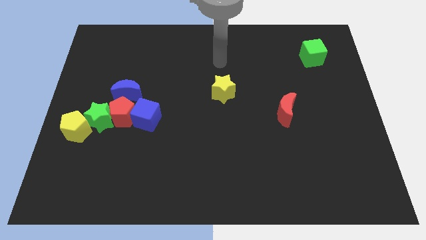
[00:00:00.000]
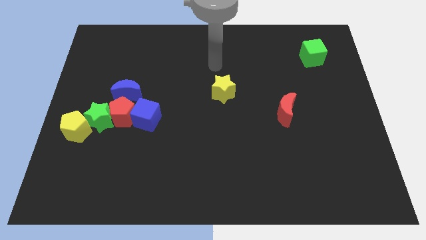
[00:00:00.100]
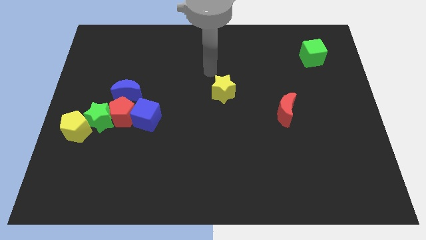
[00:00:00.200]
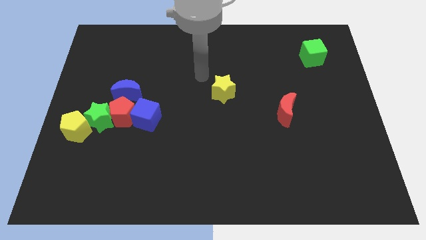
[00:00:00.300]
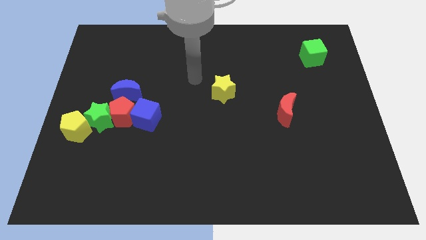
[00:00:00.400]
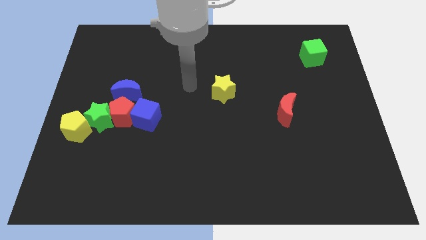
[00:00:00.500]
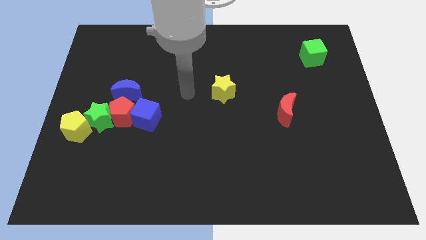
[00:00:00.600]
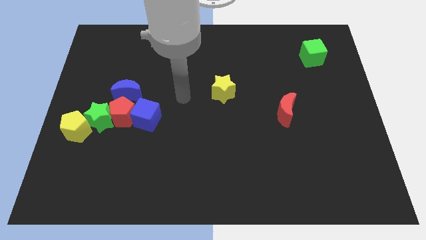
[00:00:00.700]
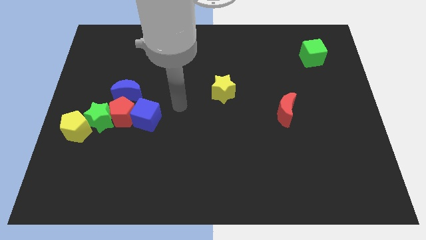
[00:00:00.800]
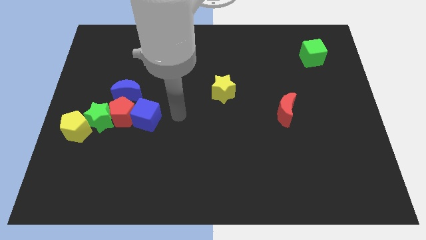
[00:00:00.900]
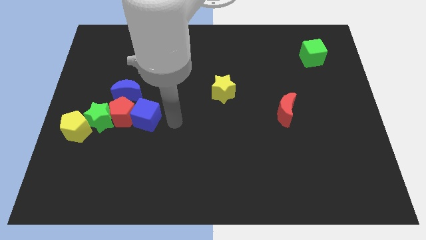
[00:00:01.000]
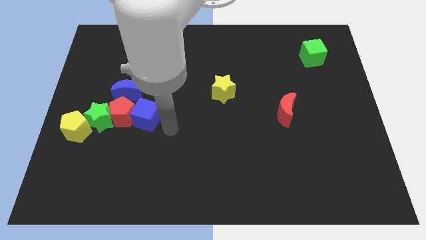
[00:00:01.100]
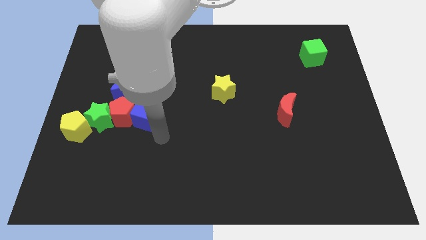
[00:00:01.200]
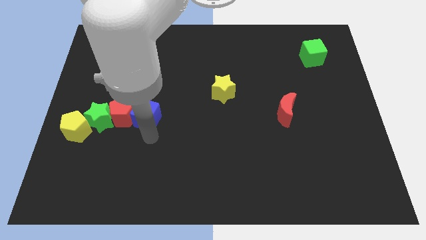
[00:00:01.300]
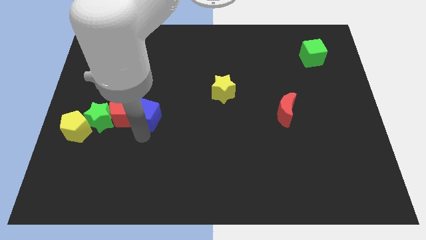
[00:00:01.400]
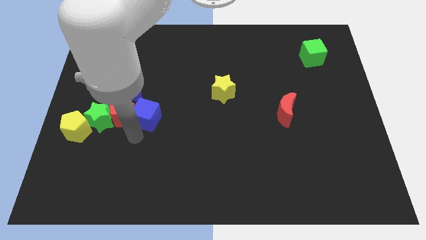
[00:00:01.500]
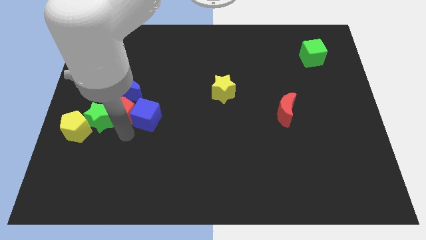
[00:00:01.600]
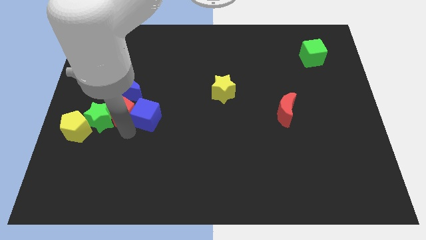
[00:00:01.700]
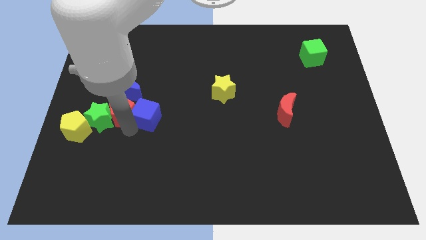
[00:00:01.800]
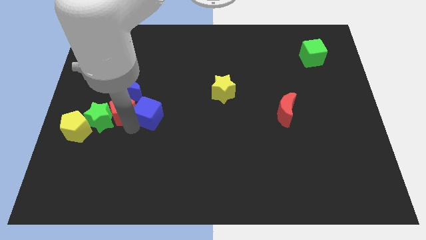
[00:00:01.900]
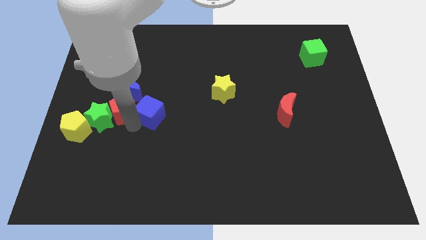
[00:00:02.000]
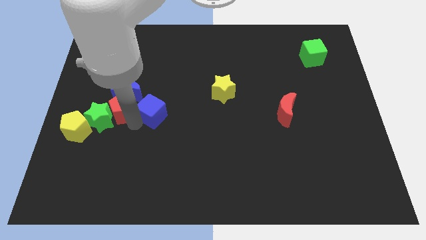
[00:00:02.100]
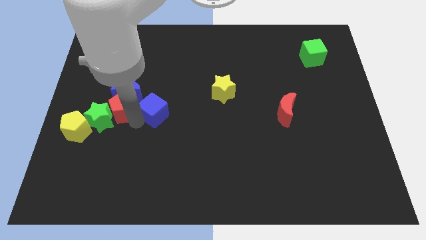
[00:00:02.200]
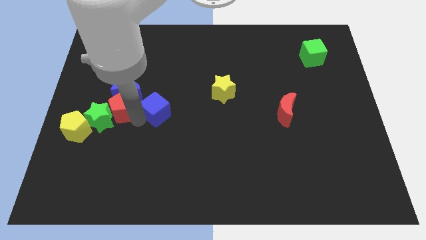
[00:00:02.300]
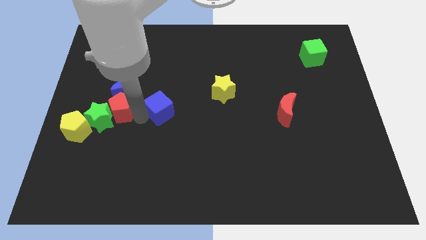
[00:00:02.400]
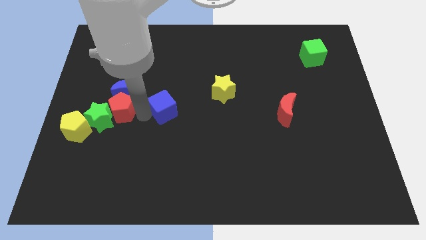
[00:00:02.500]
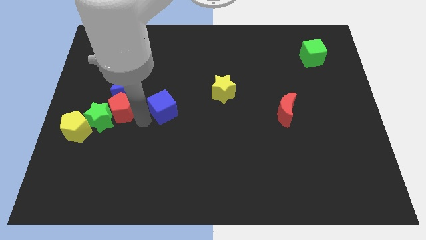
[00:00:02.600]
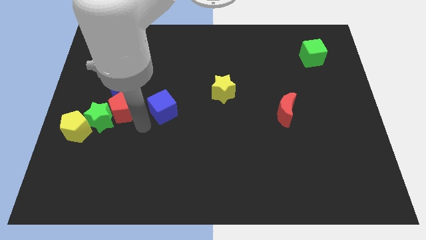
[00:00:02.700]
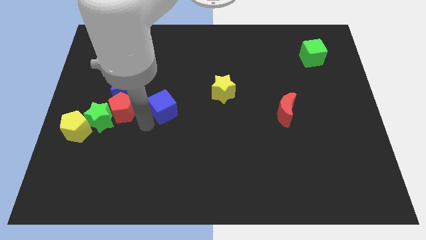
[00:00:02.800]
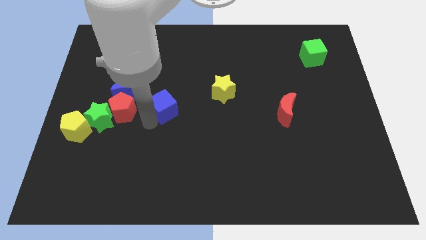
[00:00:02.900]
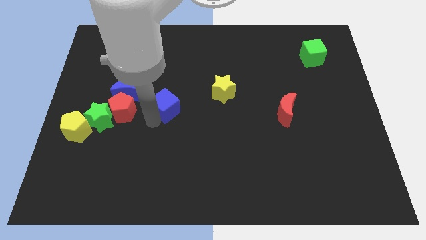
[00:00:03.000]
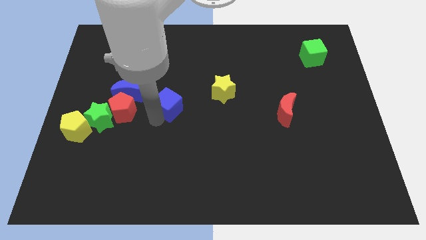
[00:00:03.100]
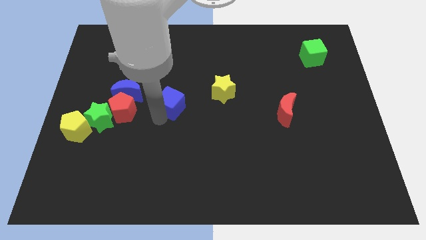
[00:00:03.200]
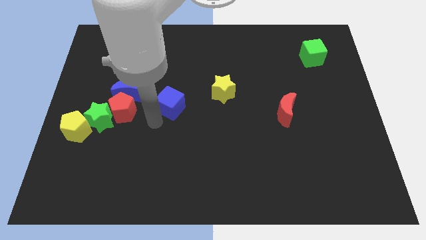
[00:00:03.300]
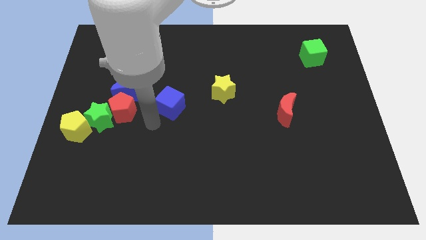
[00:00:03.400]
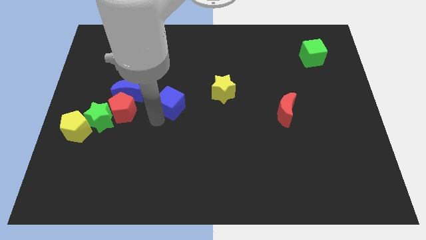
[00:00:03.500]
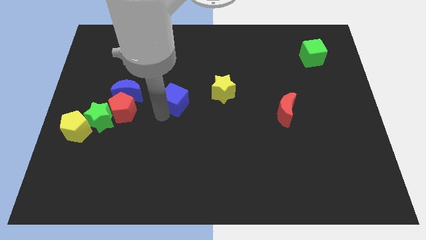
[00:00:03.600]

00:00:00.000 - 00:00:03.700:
push the blue cube a bit up and to the right

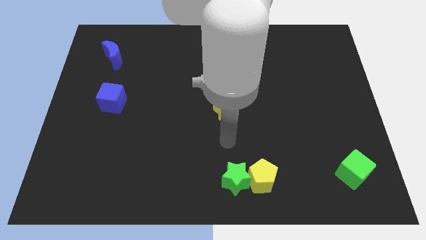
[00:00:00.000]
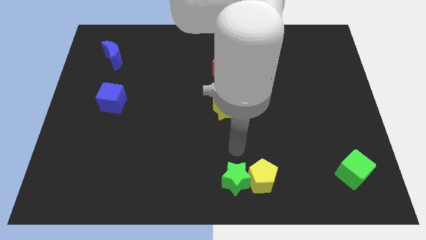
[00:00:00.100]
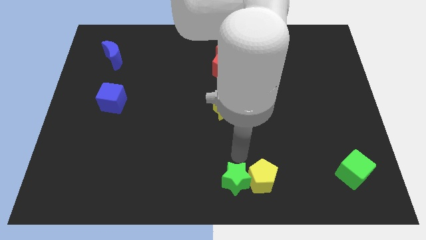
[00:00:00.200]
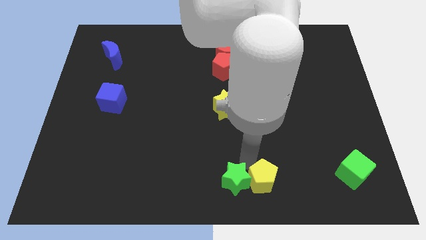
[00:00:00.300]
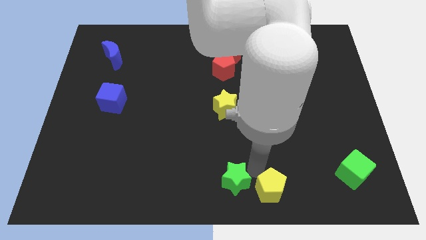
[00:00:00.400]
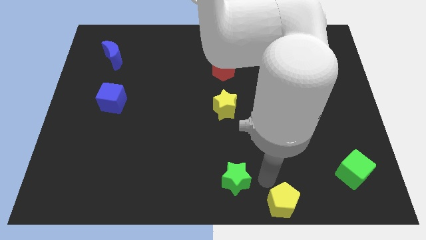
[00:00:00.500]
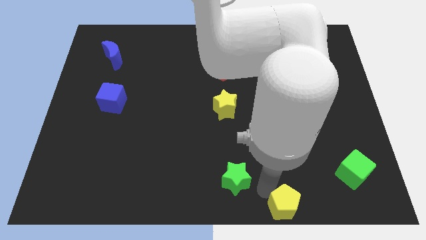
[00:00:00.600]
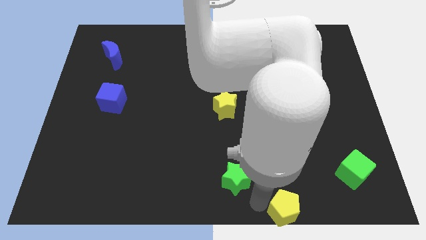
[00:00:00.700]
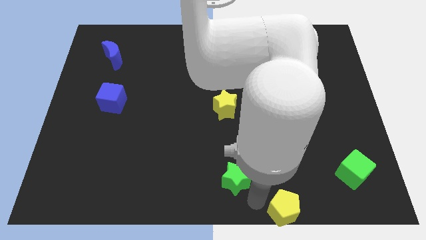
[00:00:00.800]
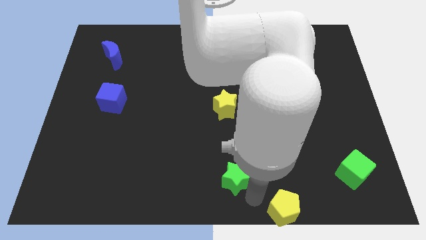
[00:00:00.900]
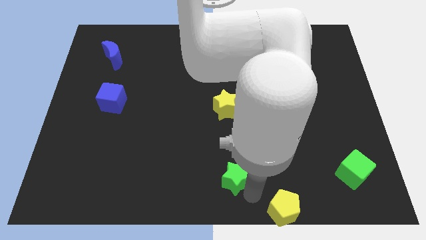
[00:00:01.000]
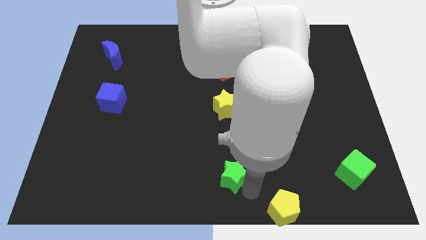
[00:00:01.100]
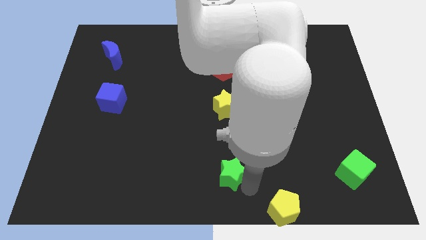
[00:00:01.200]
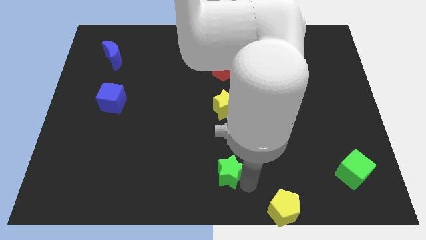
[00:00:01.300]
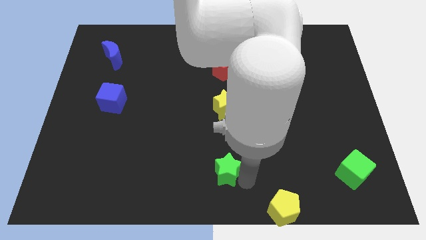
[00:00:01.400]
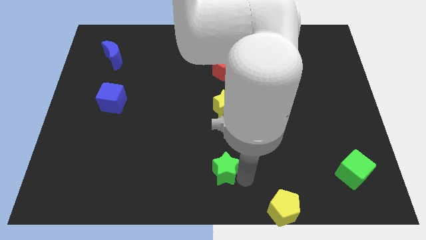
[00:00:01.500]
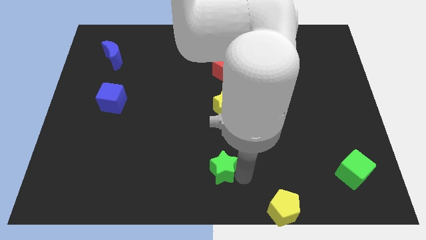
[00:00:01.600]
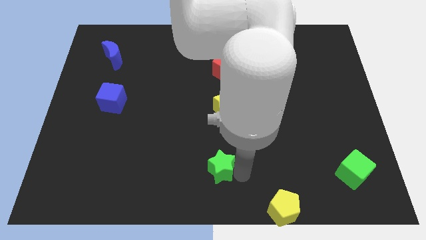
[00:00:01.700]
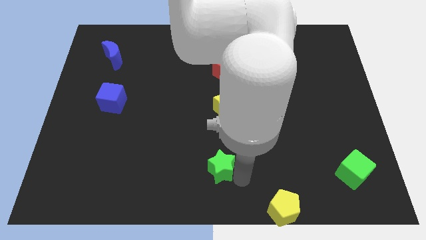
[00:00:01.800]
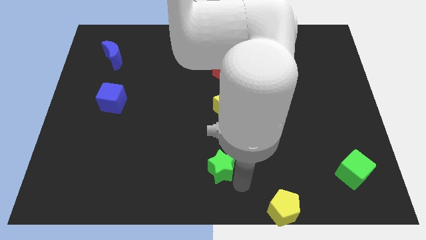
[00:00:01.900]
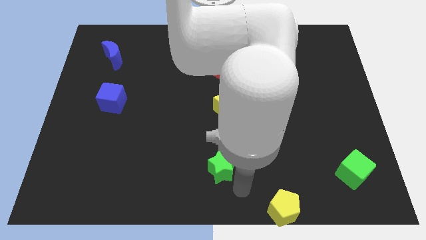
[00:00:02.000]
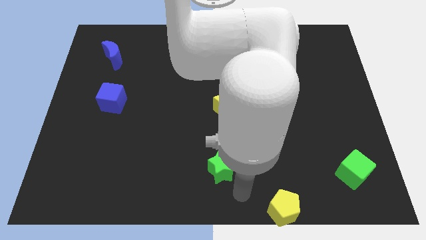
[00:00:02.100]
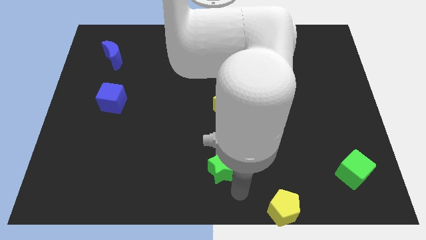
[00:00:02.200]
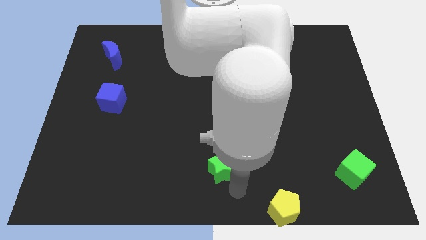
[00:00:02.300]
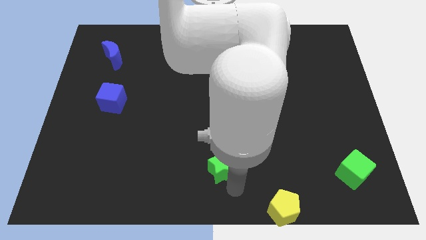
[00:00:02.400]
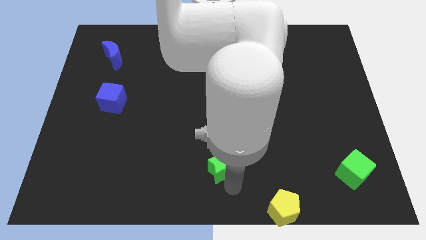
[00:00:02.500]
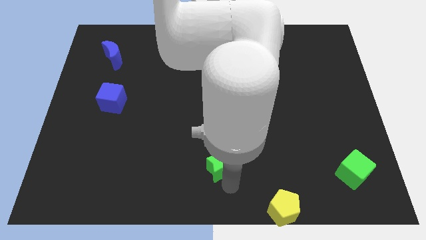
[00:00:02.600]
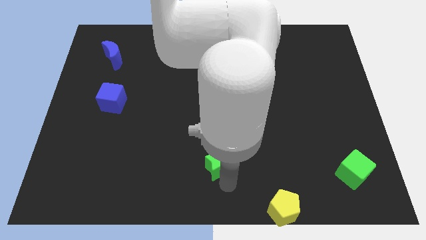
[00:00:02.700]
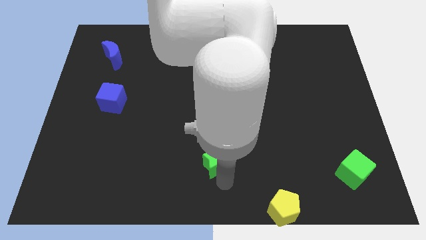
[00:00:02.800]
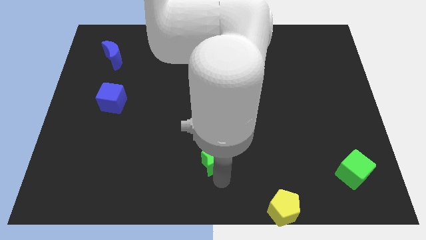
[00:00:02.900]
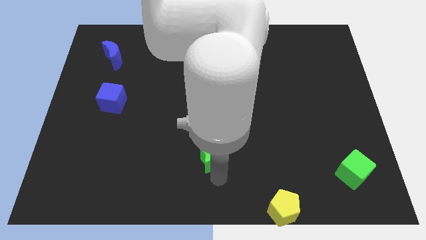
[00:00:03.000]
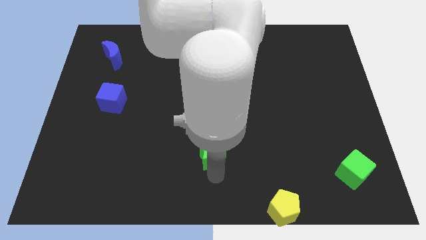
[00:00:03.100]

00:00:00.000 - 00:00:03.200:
slightly push the green star up and to the left diagonally

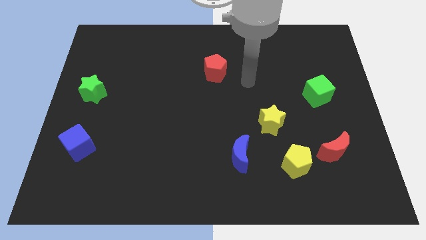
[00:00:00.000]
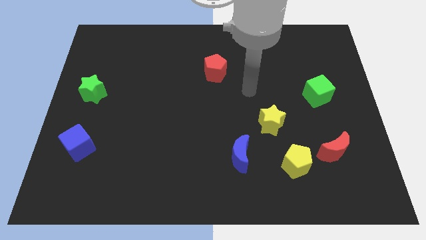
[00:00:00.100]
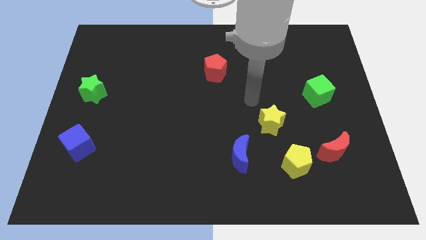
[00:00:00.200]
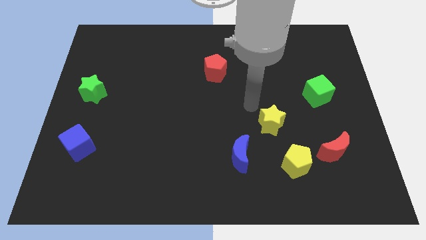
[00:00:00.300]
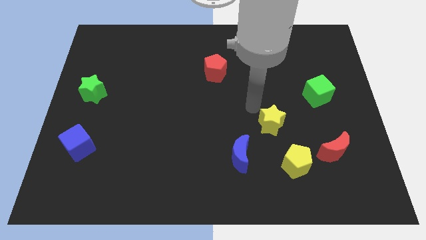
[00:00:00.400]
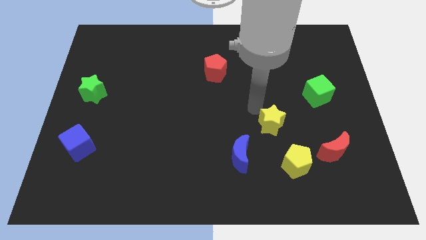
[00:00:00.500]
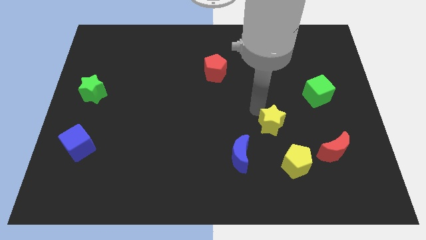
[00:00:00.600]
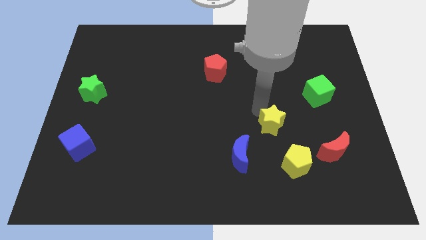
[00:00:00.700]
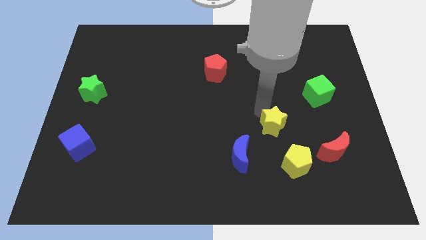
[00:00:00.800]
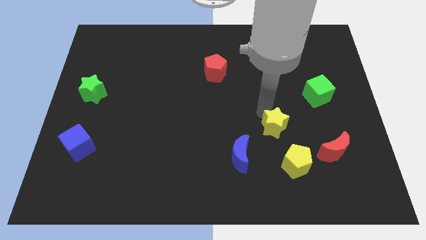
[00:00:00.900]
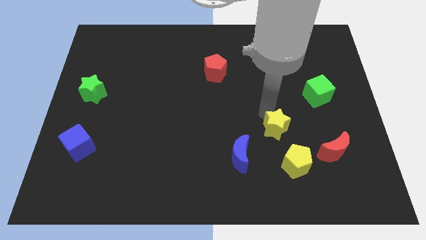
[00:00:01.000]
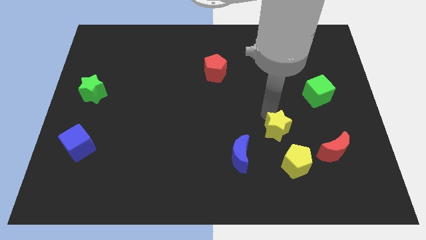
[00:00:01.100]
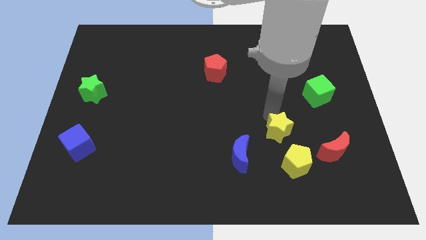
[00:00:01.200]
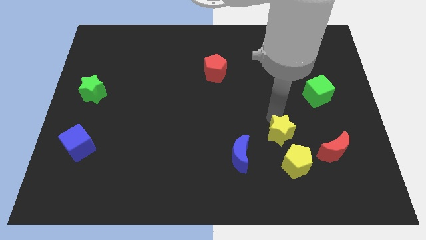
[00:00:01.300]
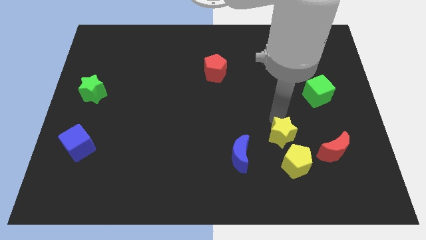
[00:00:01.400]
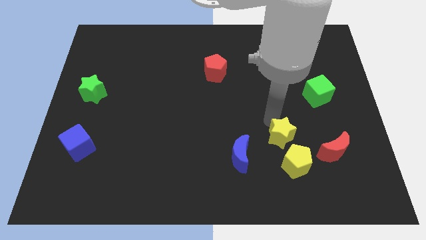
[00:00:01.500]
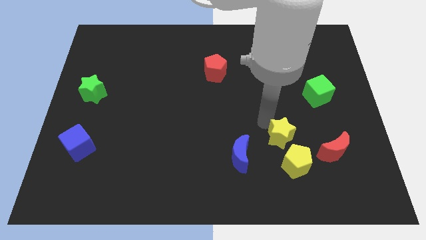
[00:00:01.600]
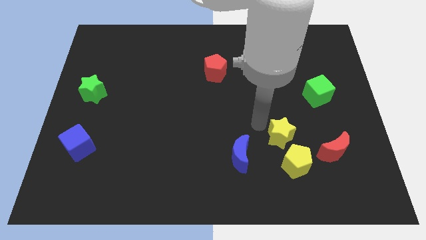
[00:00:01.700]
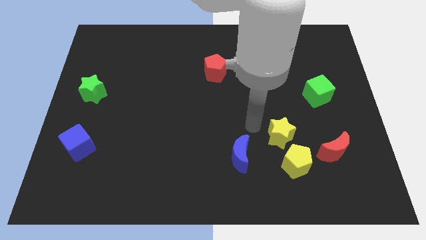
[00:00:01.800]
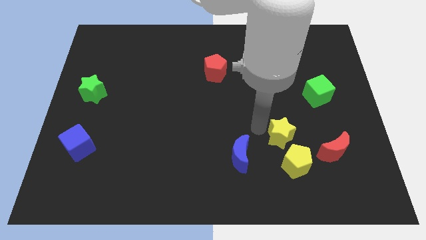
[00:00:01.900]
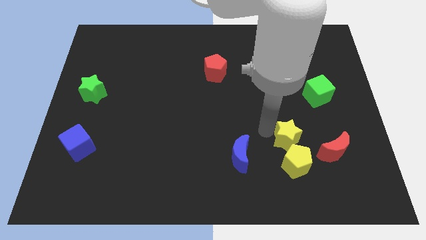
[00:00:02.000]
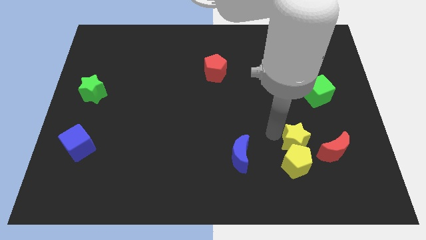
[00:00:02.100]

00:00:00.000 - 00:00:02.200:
push the yellow star down and right a bit
